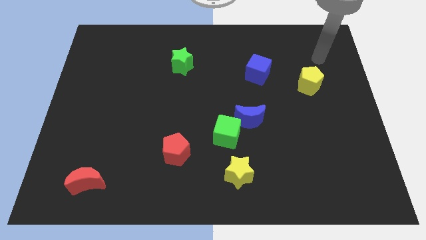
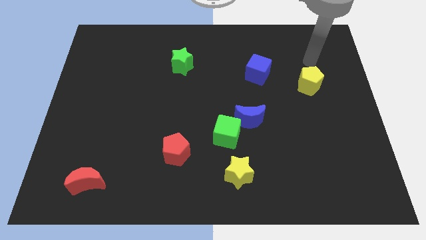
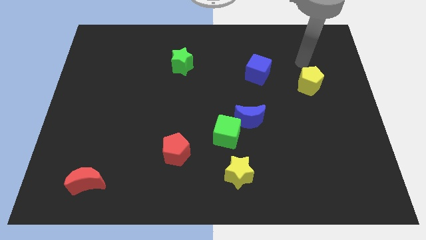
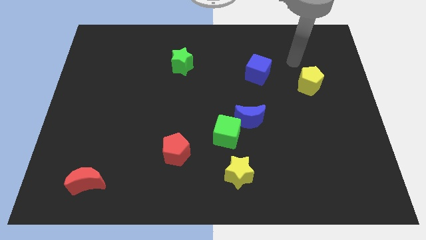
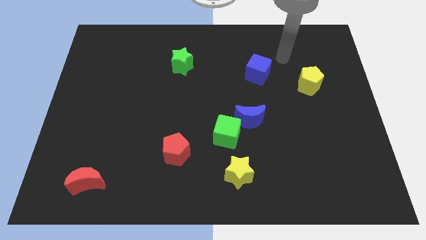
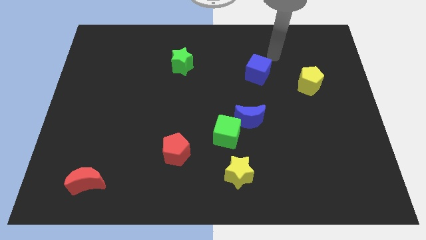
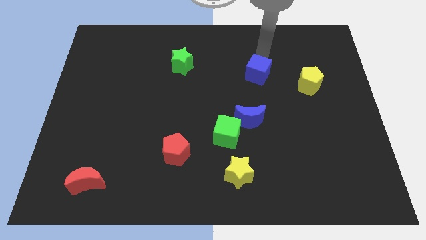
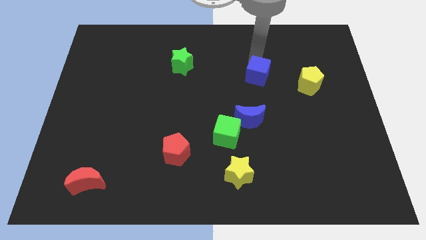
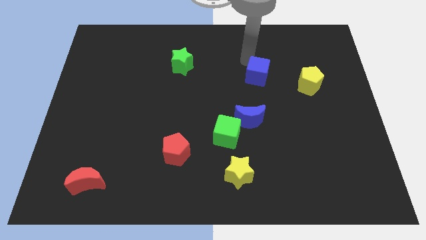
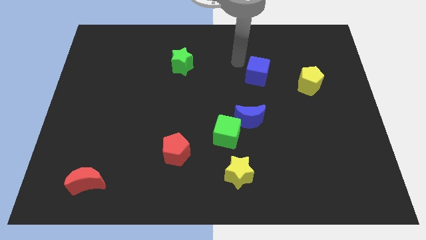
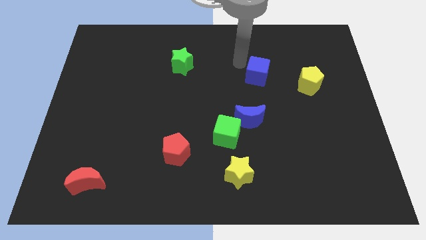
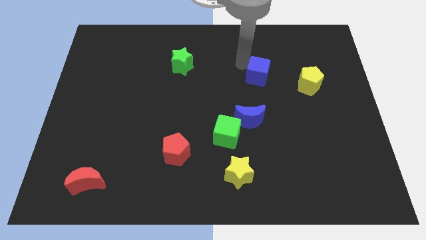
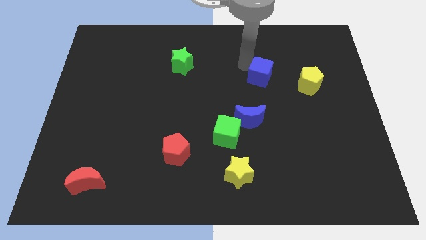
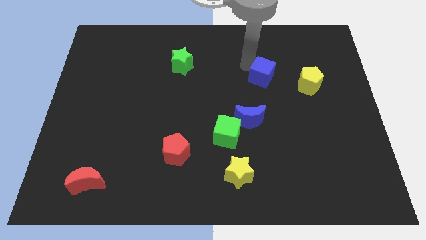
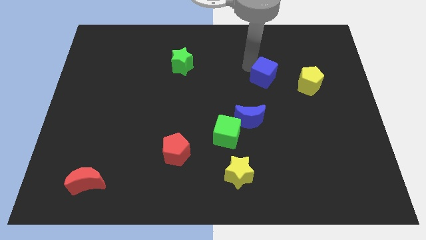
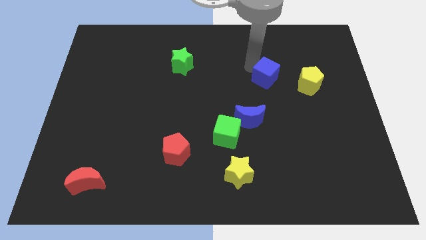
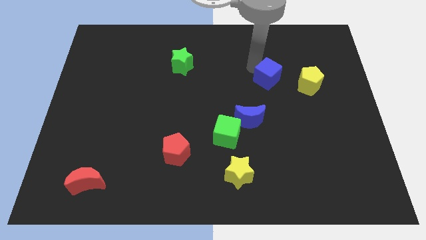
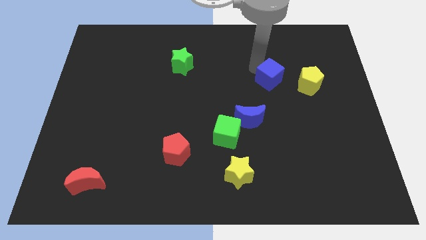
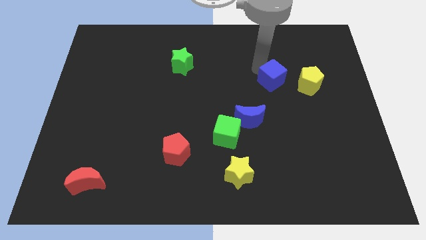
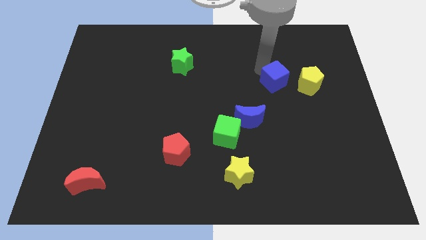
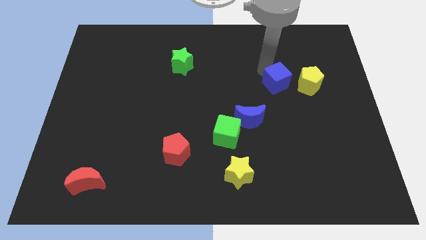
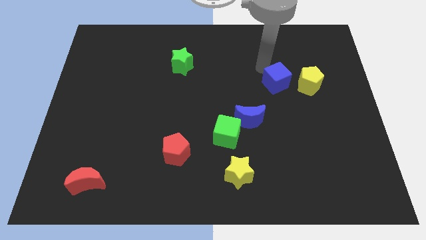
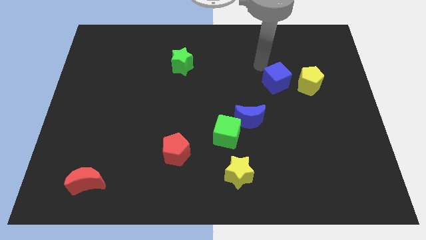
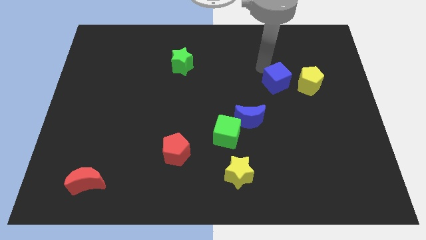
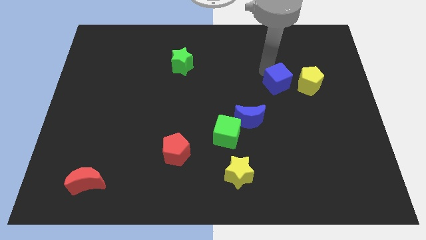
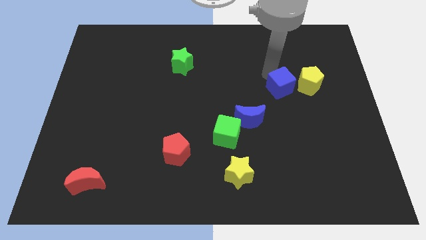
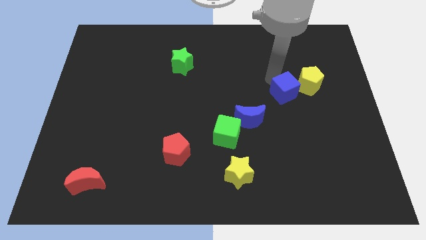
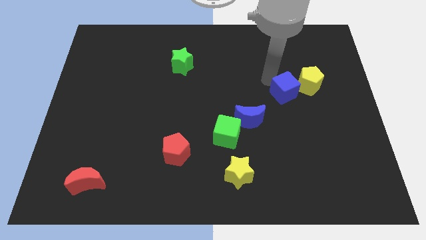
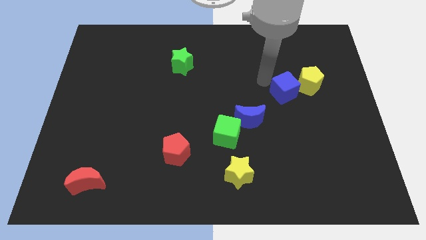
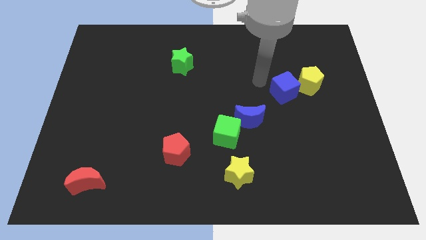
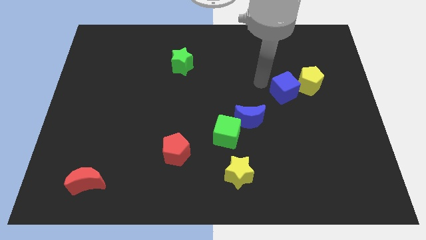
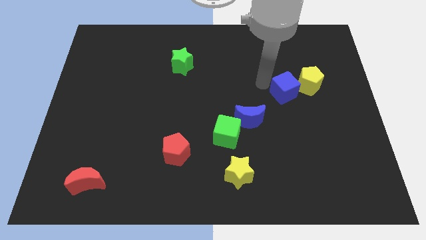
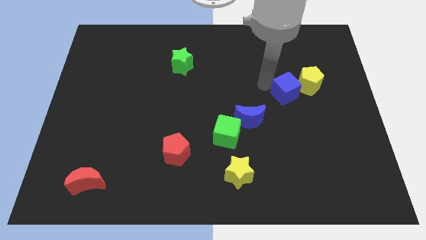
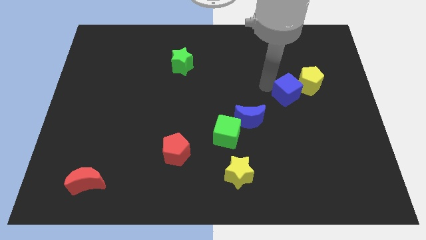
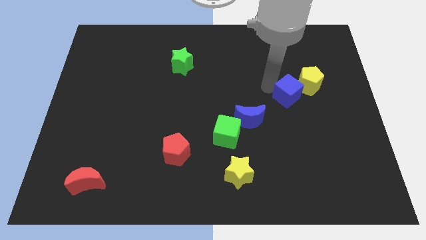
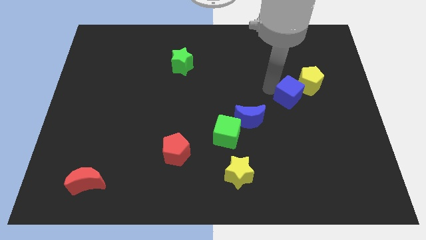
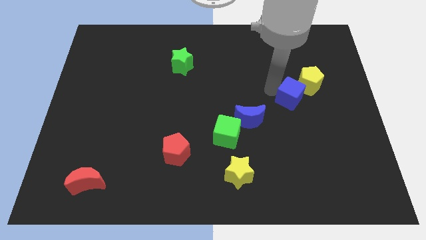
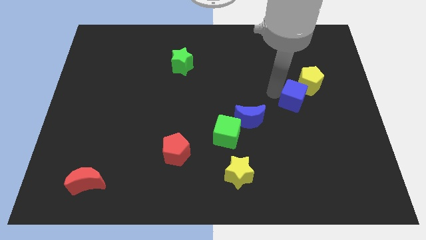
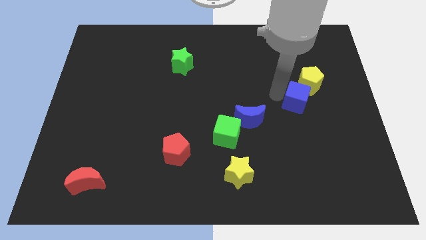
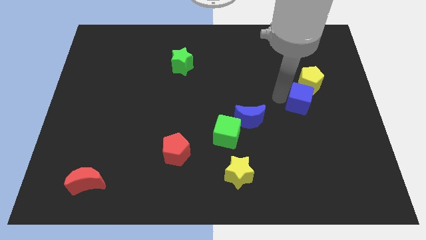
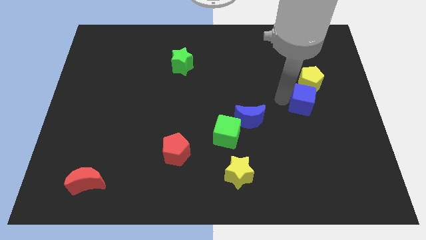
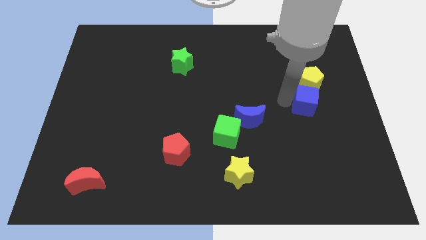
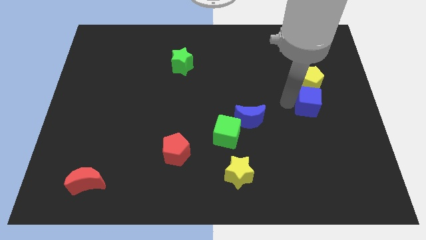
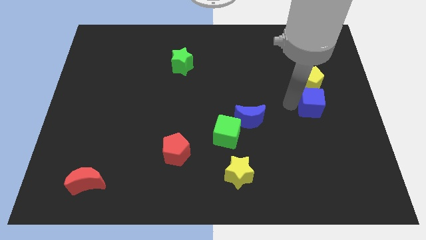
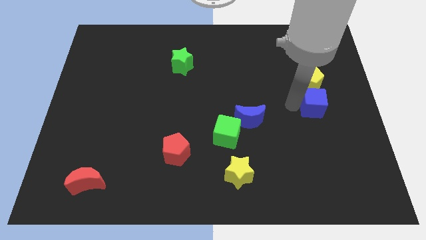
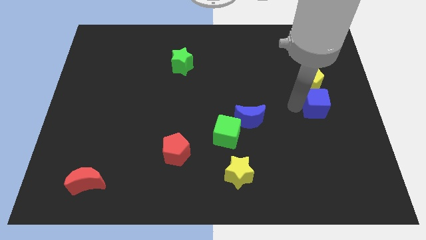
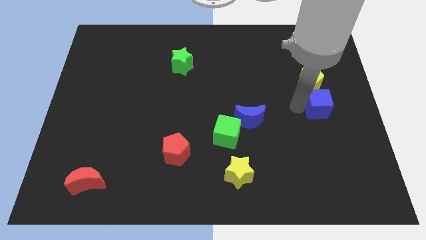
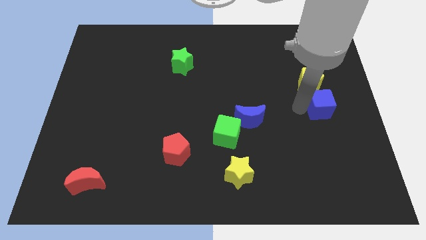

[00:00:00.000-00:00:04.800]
push the blue cube to the right side

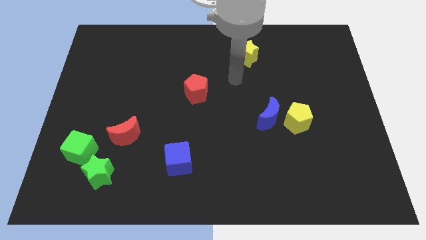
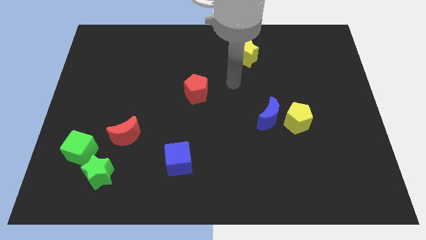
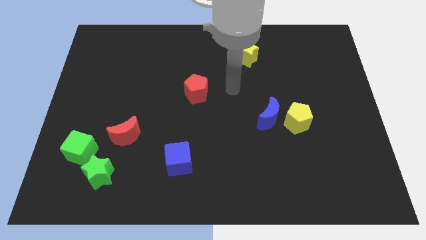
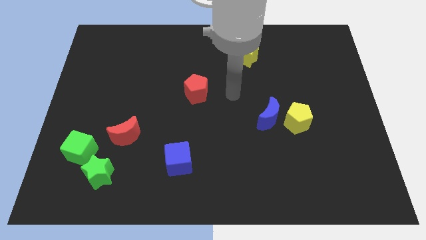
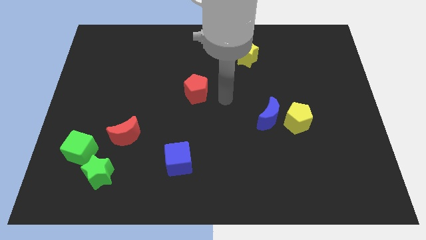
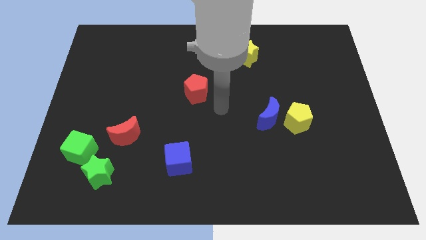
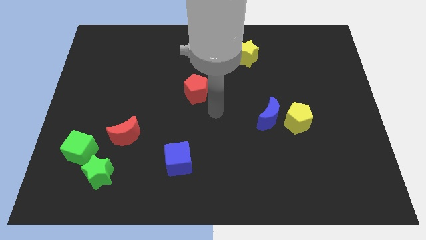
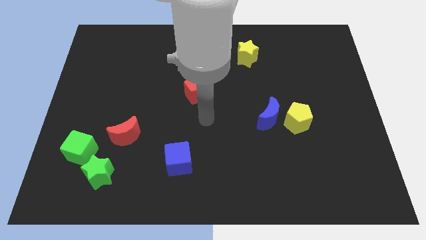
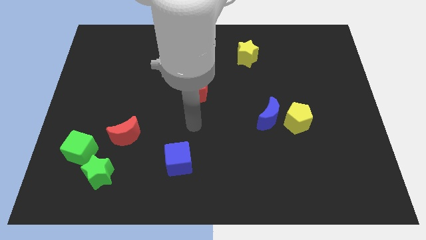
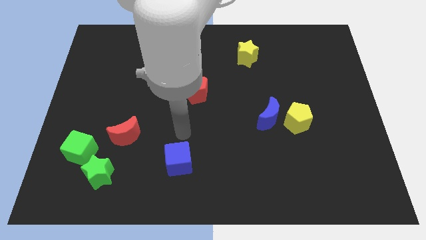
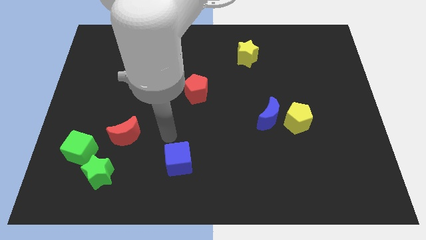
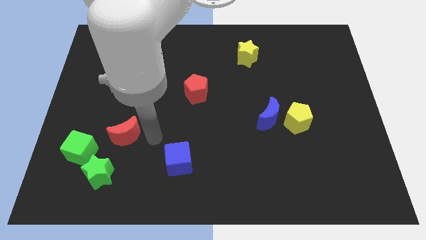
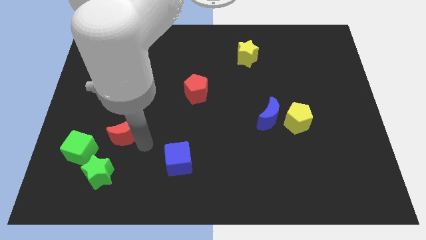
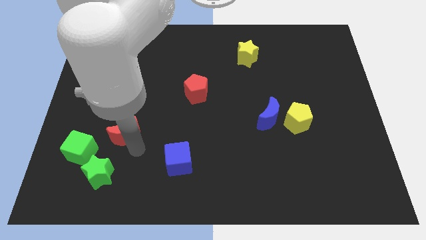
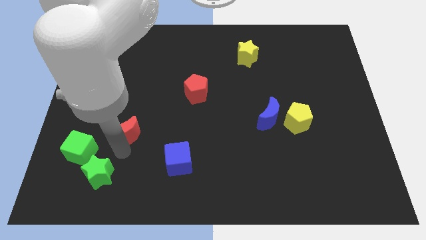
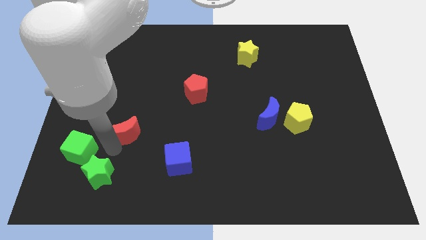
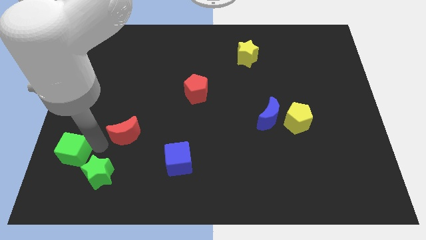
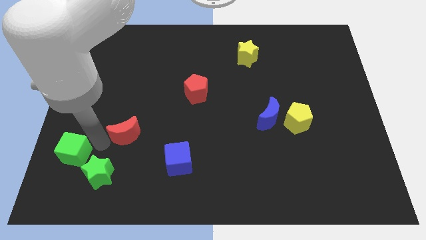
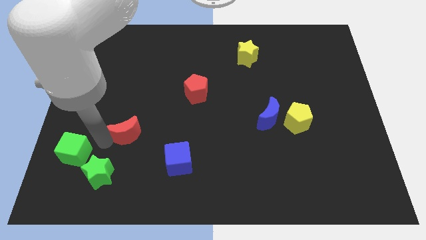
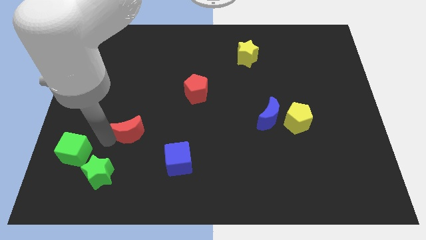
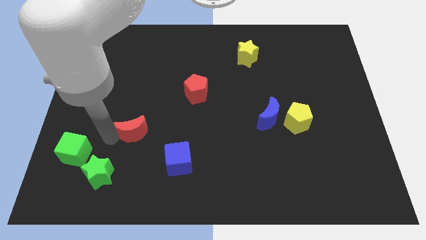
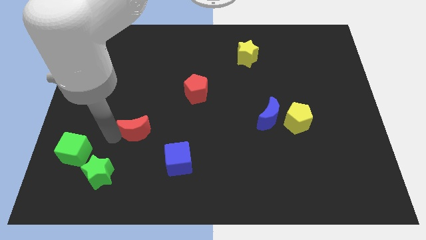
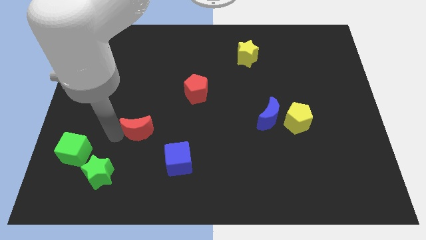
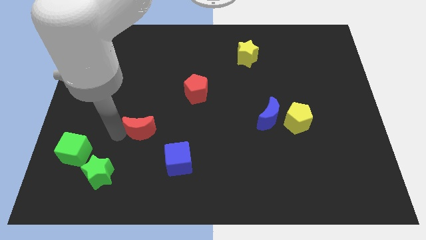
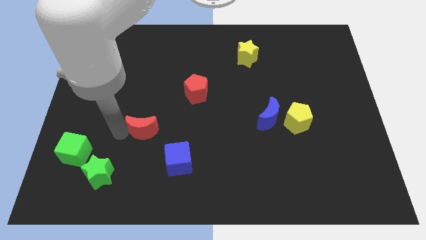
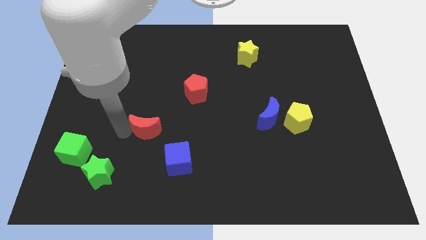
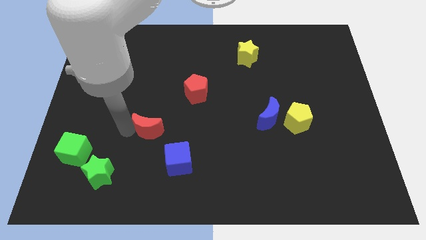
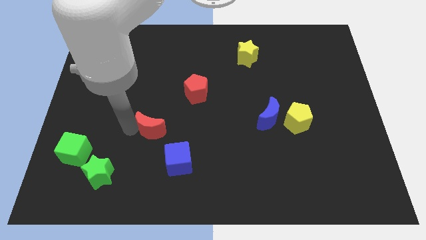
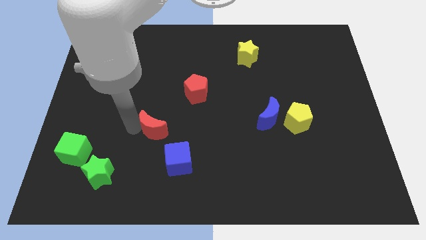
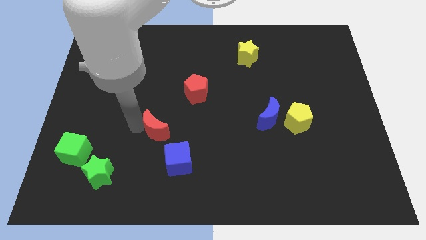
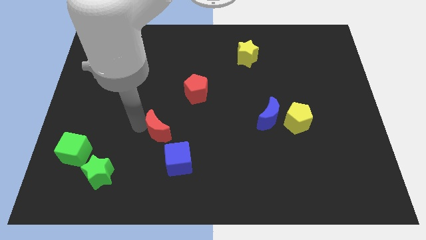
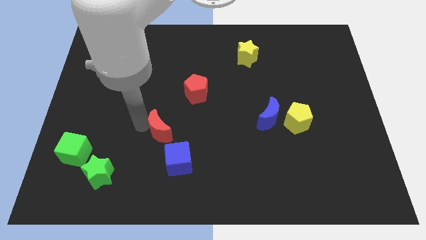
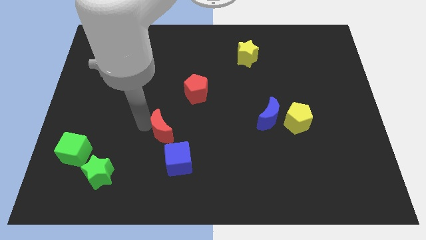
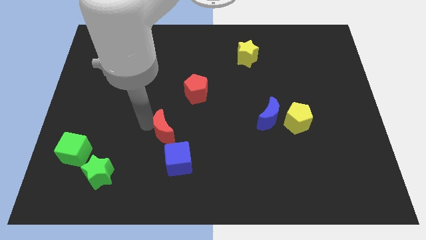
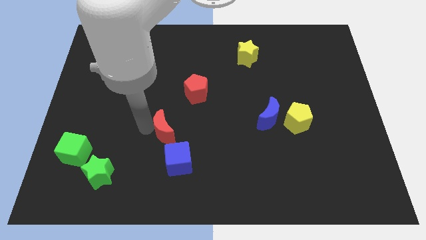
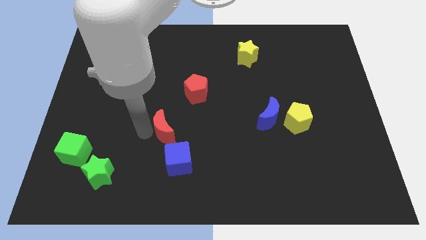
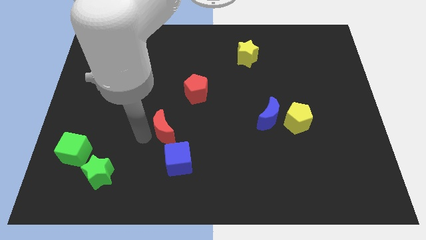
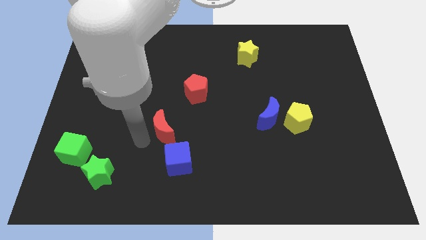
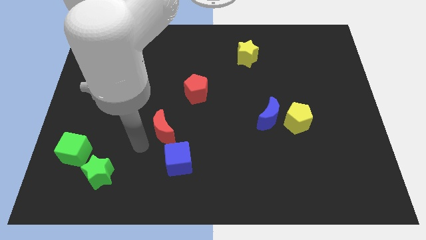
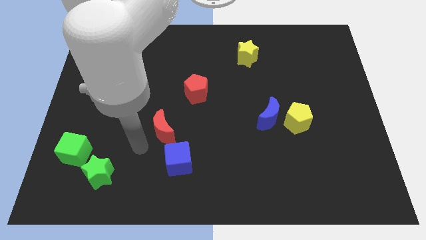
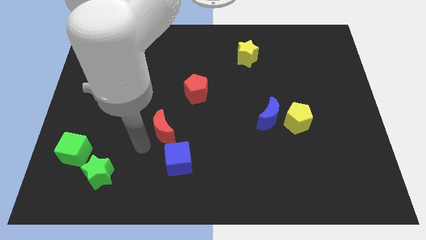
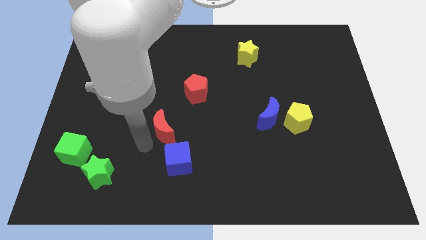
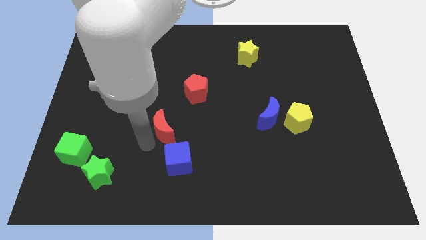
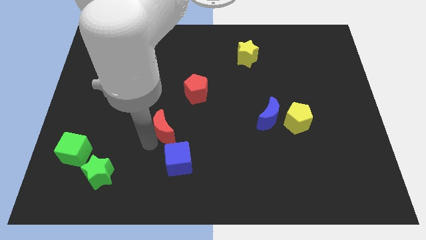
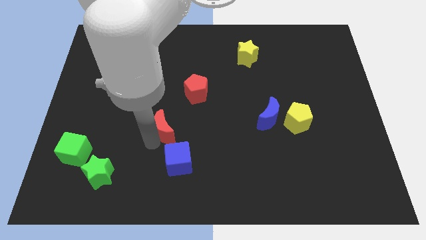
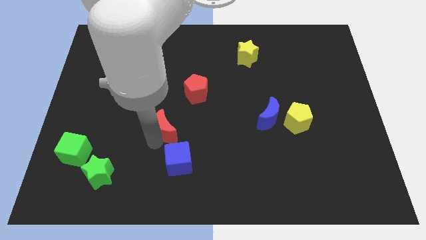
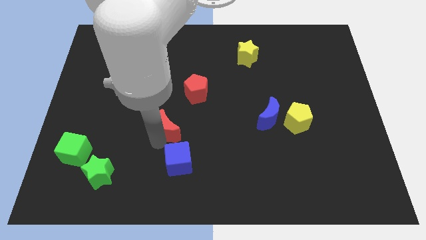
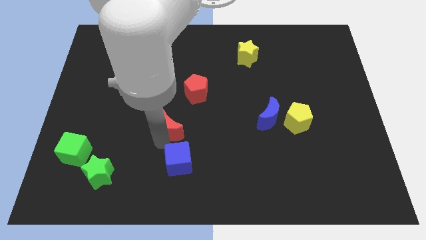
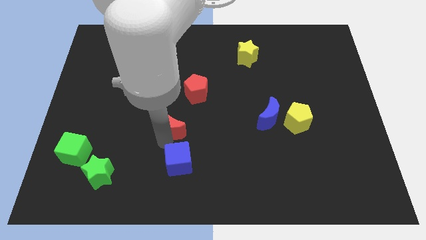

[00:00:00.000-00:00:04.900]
move the red moon to the middle
